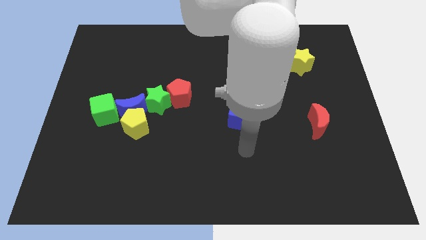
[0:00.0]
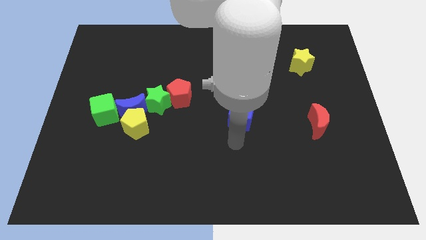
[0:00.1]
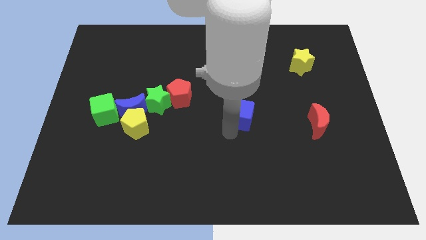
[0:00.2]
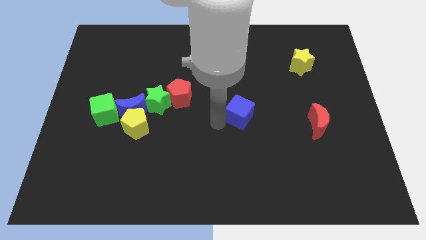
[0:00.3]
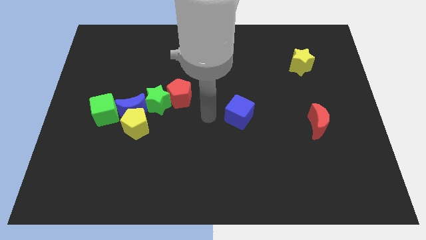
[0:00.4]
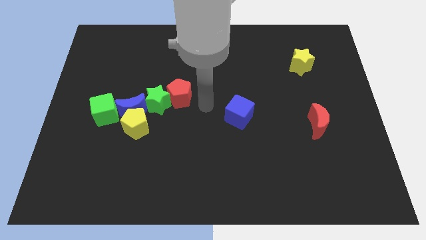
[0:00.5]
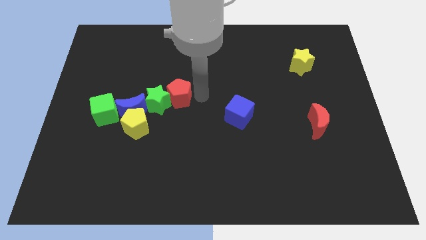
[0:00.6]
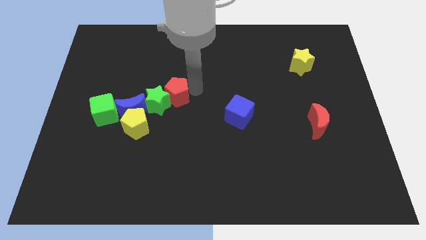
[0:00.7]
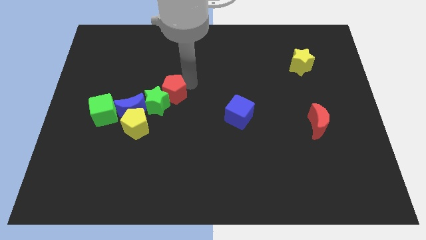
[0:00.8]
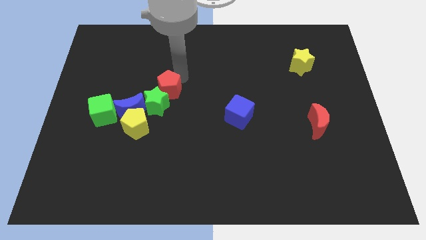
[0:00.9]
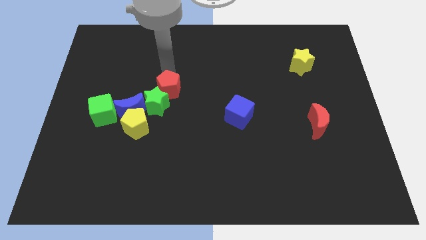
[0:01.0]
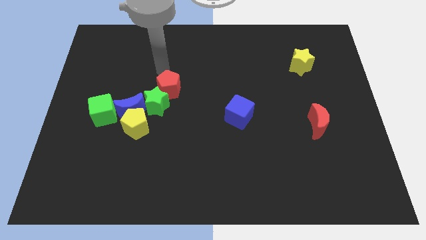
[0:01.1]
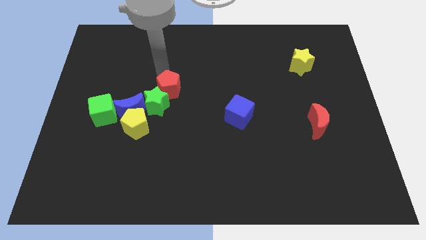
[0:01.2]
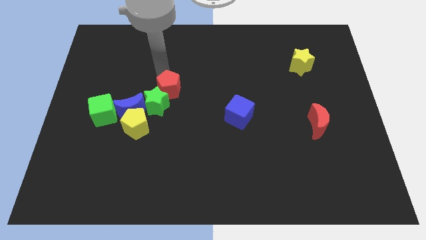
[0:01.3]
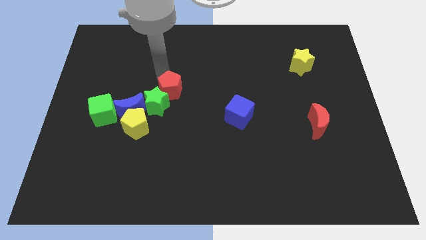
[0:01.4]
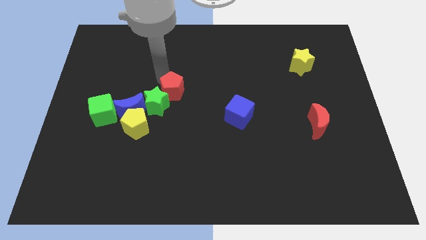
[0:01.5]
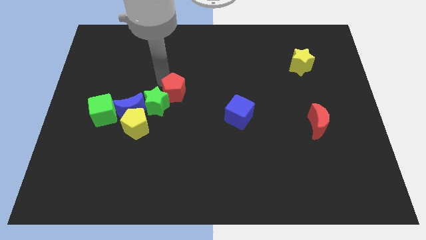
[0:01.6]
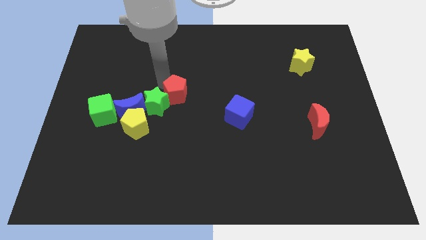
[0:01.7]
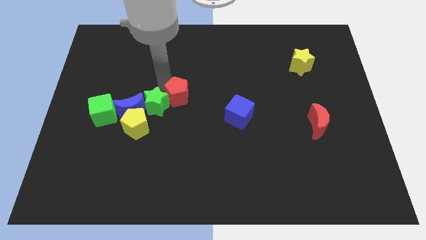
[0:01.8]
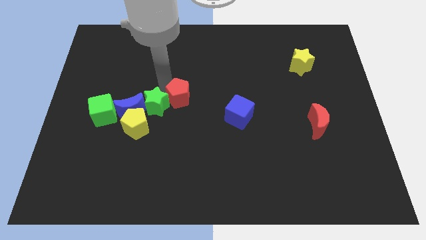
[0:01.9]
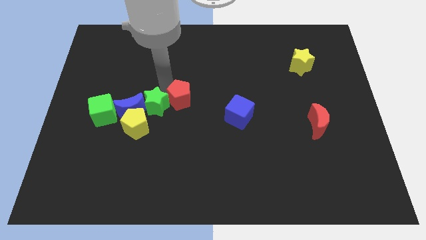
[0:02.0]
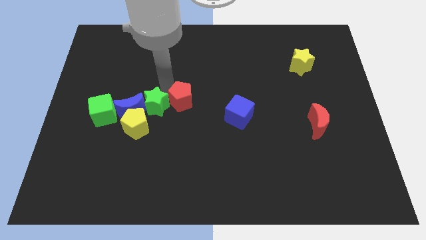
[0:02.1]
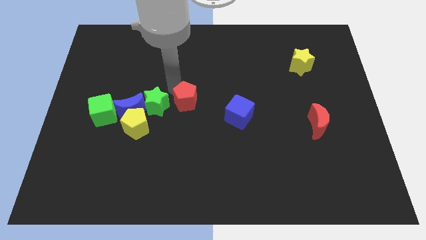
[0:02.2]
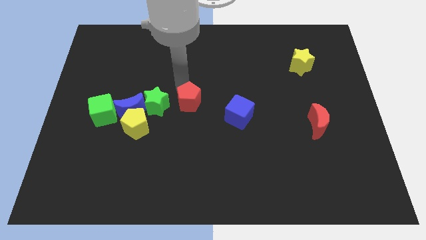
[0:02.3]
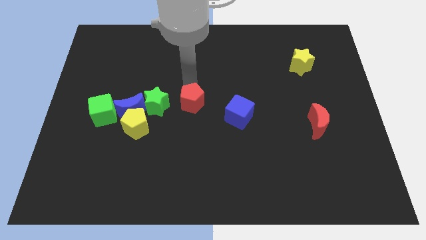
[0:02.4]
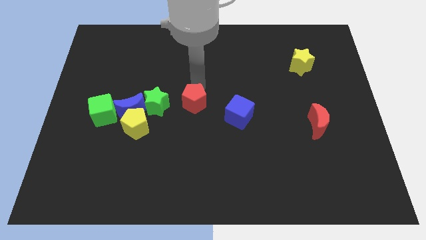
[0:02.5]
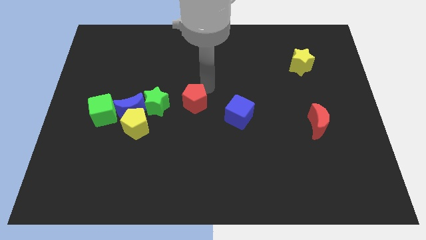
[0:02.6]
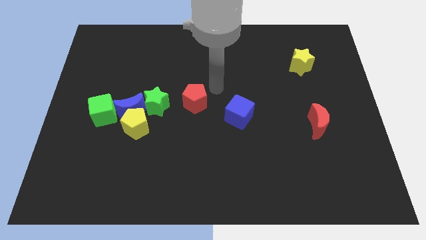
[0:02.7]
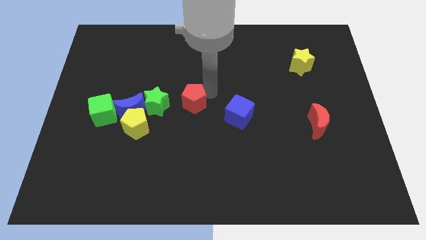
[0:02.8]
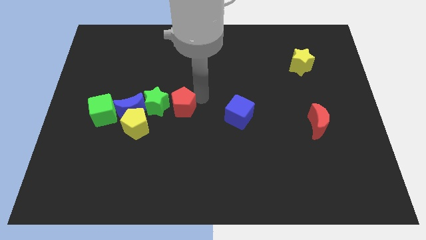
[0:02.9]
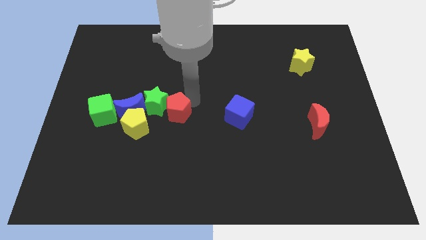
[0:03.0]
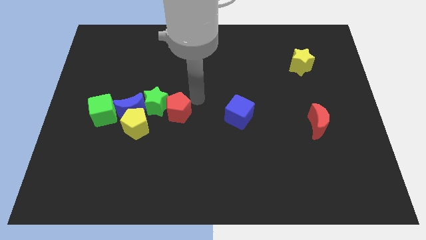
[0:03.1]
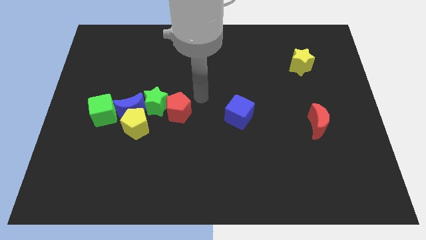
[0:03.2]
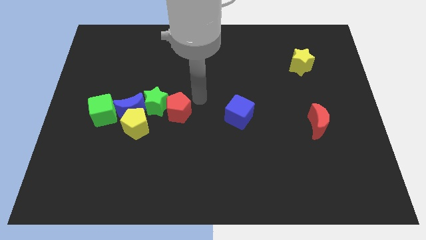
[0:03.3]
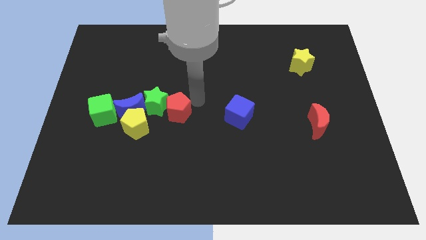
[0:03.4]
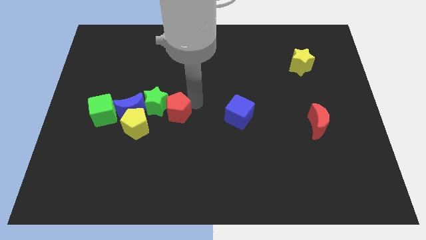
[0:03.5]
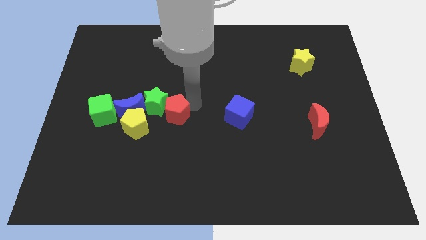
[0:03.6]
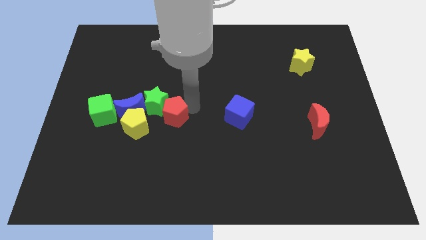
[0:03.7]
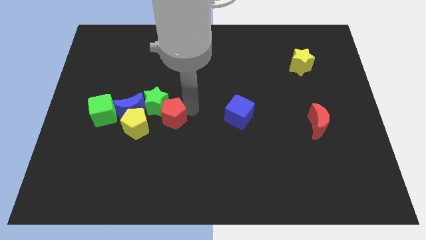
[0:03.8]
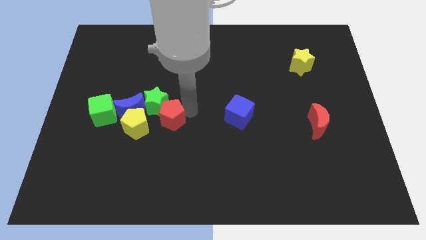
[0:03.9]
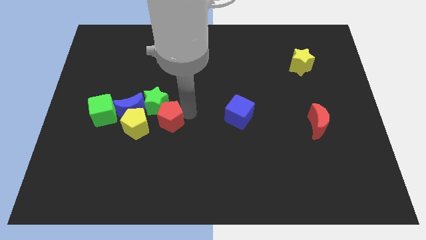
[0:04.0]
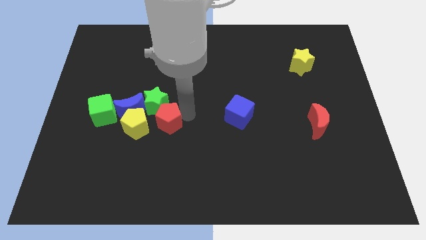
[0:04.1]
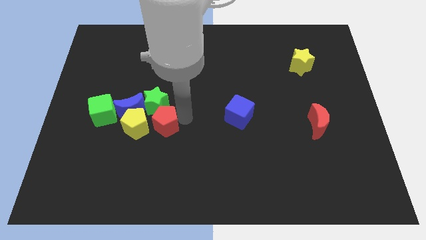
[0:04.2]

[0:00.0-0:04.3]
slightly push the red pentagon down and left diagonally

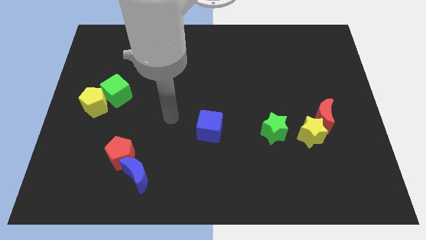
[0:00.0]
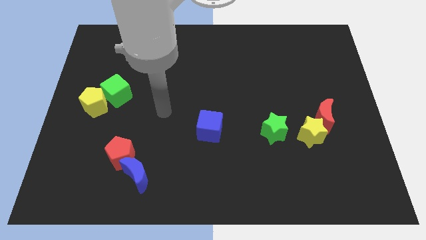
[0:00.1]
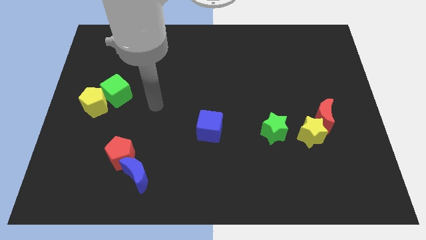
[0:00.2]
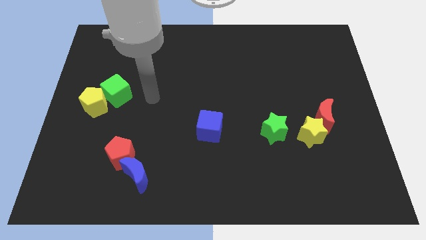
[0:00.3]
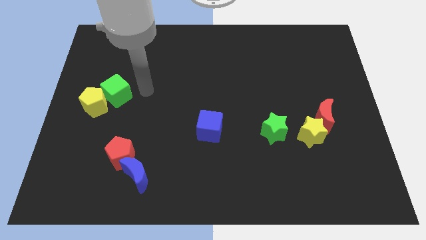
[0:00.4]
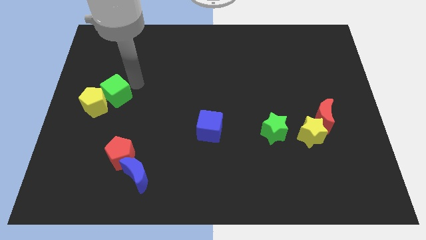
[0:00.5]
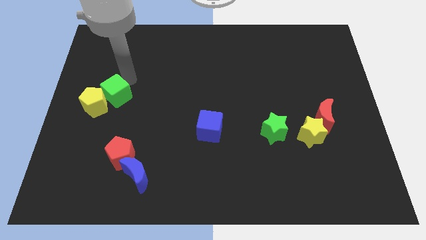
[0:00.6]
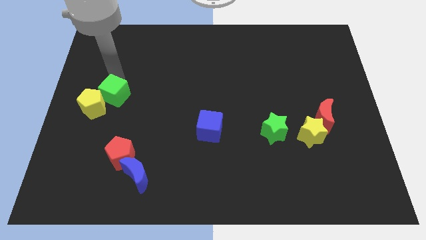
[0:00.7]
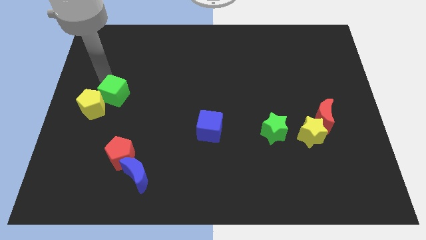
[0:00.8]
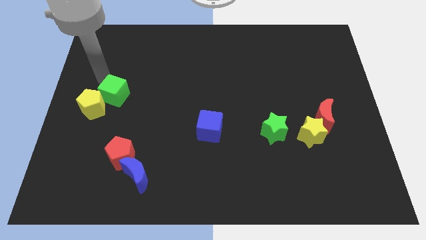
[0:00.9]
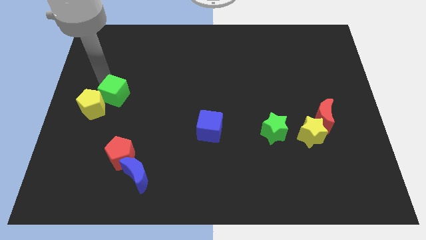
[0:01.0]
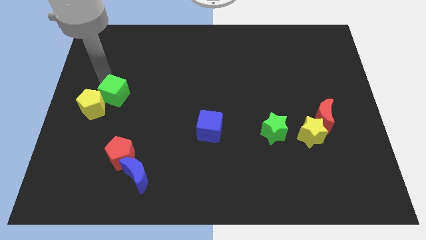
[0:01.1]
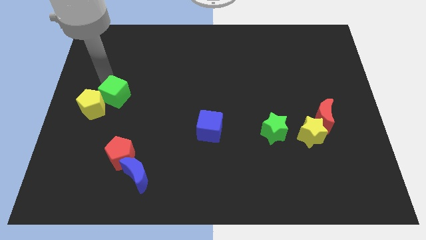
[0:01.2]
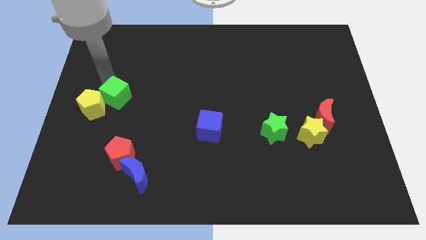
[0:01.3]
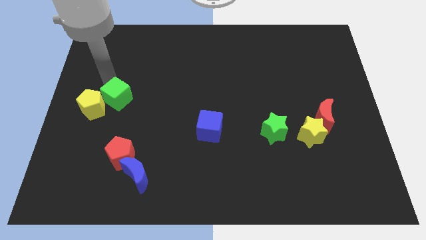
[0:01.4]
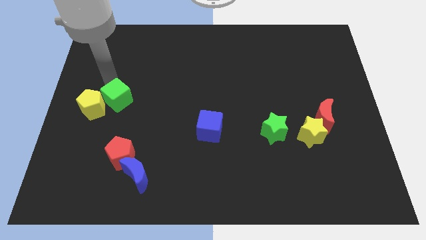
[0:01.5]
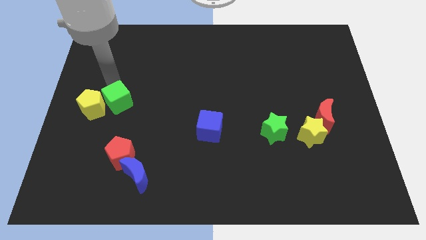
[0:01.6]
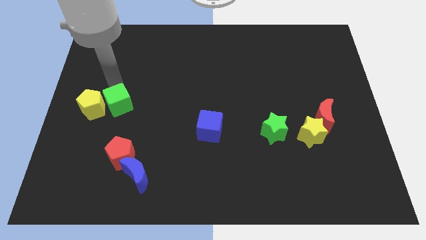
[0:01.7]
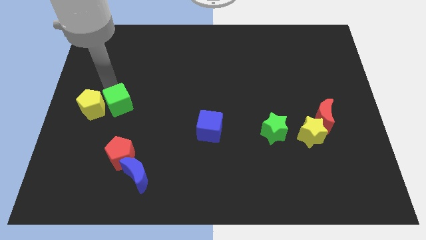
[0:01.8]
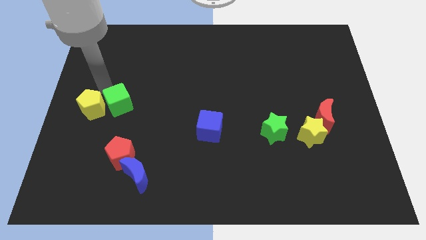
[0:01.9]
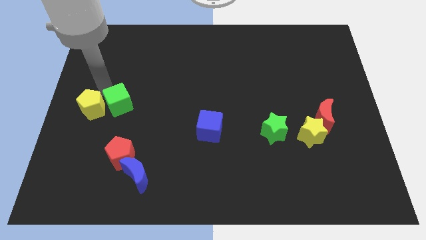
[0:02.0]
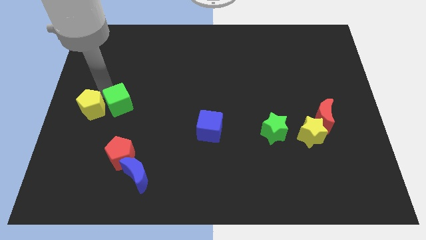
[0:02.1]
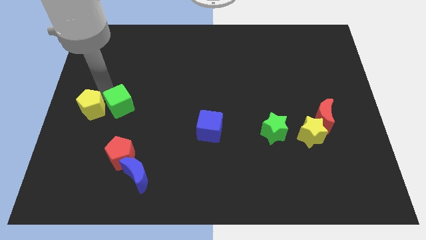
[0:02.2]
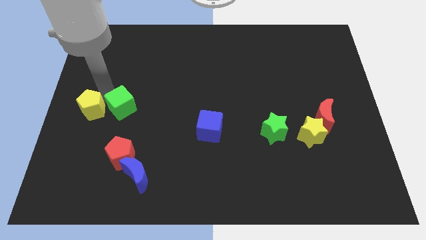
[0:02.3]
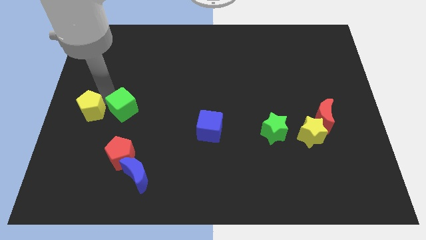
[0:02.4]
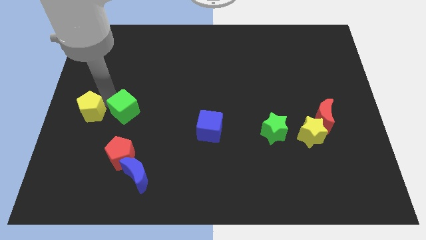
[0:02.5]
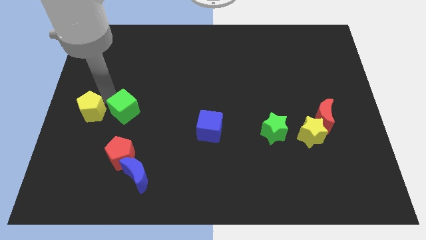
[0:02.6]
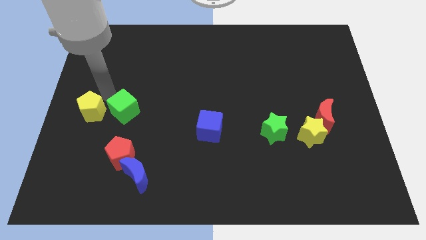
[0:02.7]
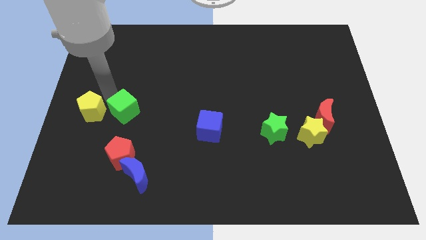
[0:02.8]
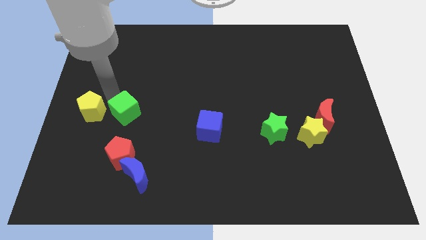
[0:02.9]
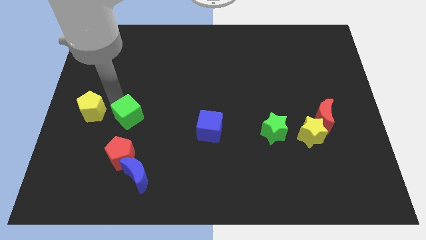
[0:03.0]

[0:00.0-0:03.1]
move the green cube a little down and right

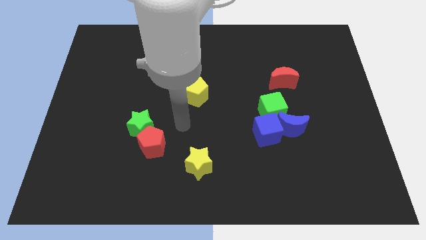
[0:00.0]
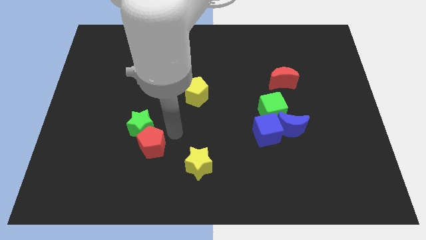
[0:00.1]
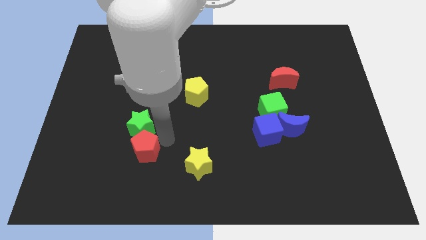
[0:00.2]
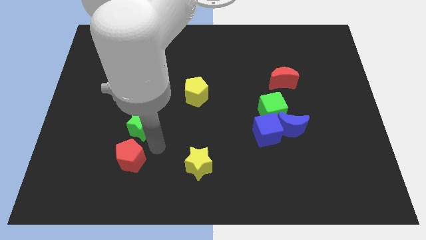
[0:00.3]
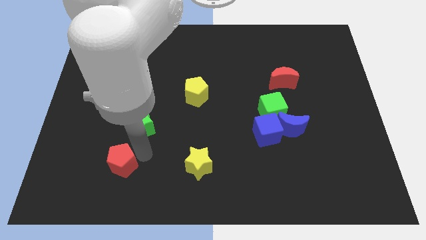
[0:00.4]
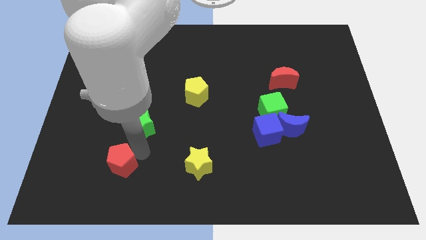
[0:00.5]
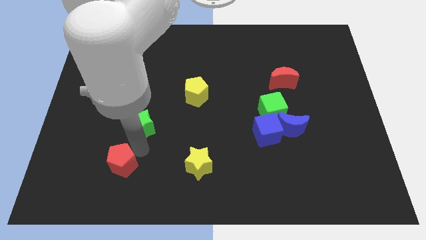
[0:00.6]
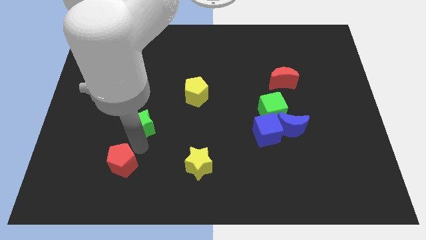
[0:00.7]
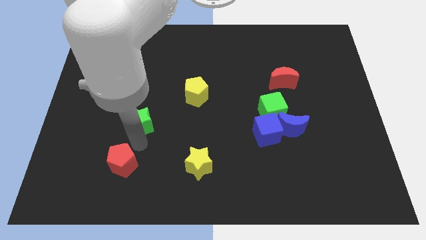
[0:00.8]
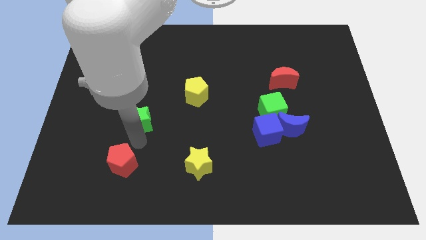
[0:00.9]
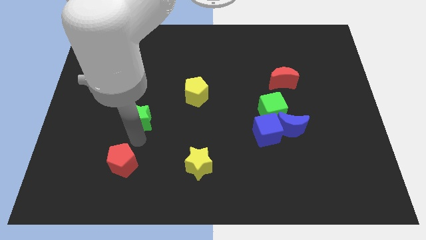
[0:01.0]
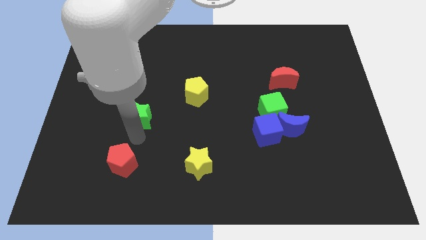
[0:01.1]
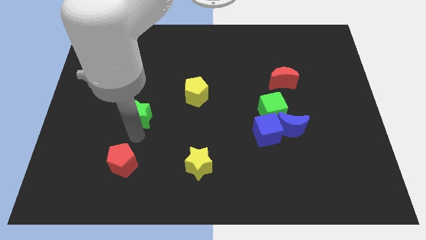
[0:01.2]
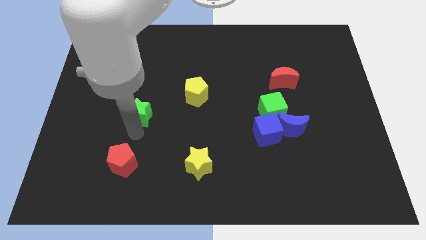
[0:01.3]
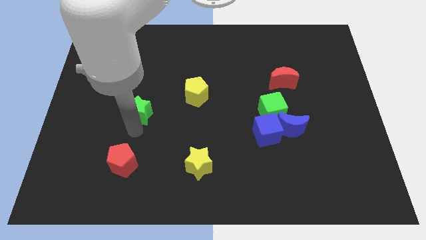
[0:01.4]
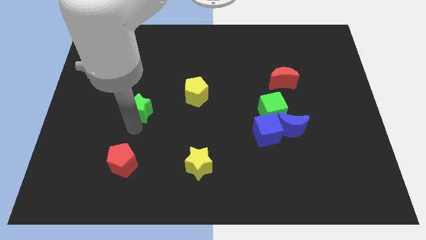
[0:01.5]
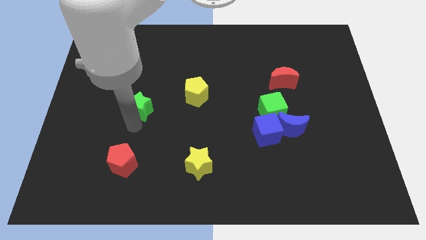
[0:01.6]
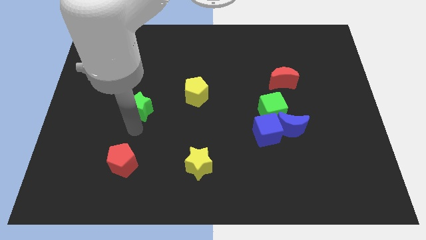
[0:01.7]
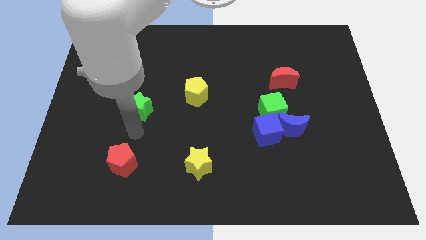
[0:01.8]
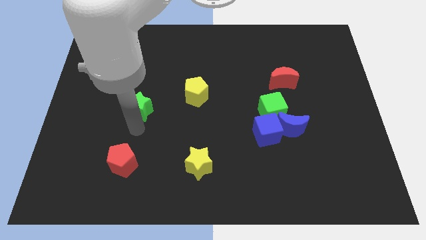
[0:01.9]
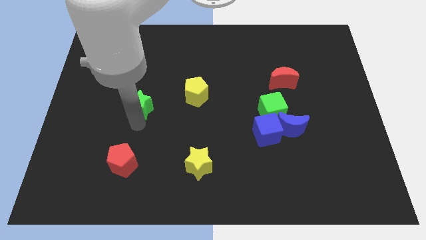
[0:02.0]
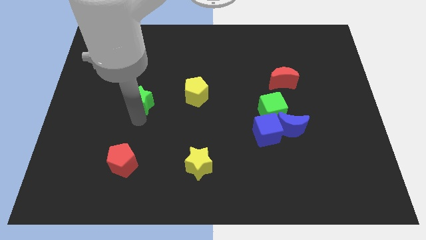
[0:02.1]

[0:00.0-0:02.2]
slightly move the green star up
